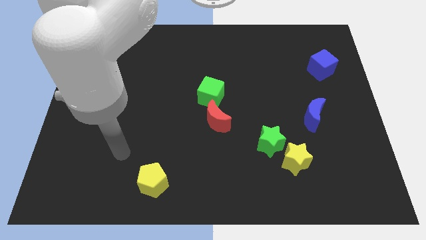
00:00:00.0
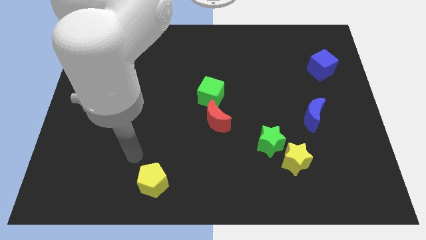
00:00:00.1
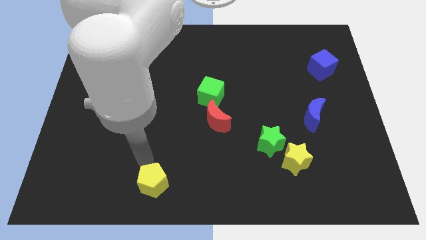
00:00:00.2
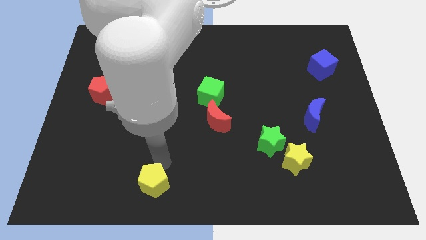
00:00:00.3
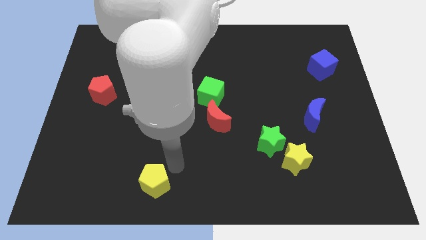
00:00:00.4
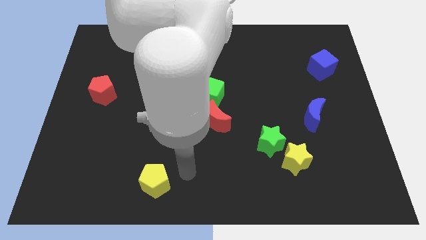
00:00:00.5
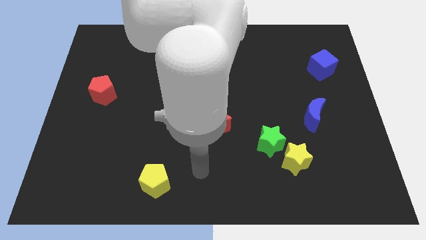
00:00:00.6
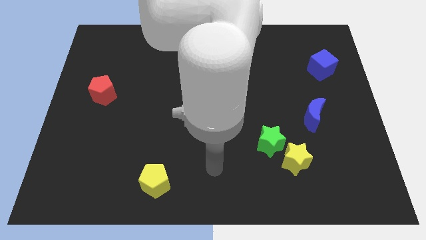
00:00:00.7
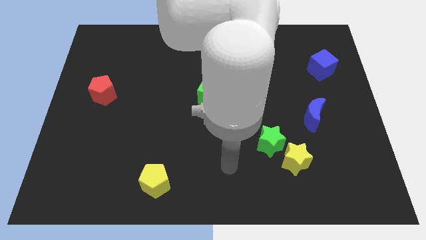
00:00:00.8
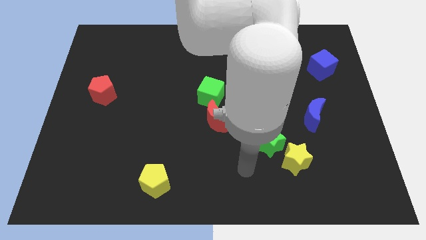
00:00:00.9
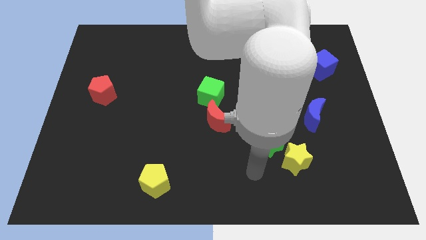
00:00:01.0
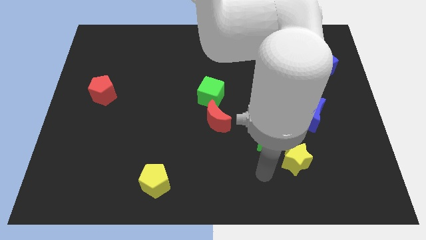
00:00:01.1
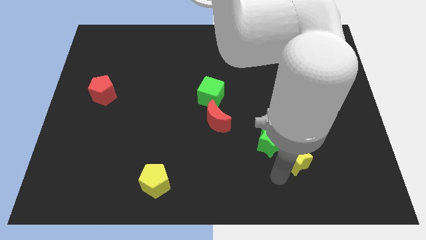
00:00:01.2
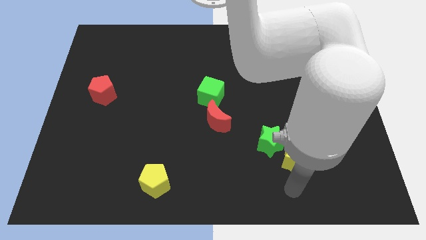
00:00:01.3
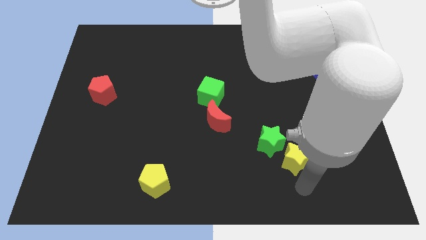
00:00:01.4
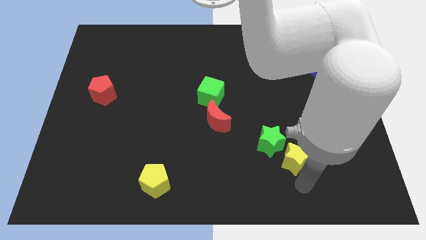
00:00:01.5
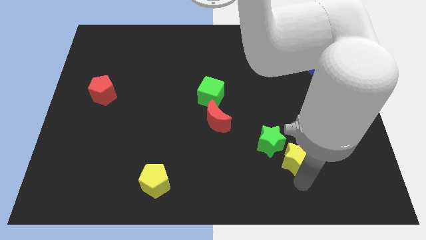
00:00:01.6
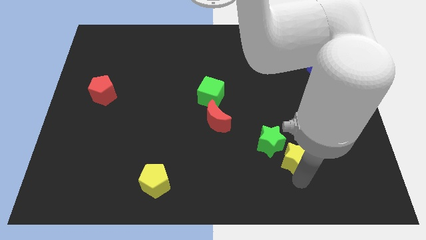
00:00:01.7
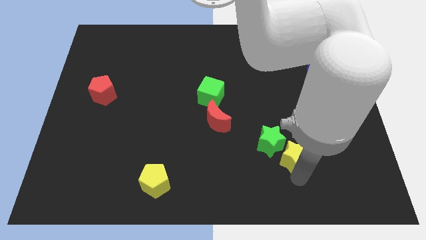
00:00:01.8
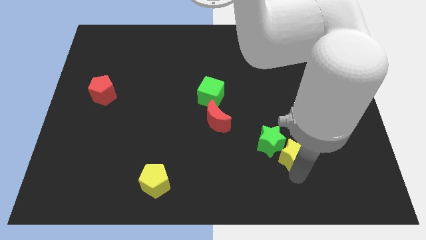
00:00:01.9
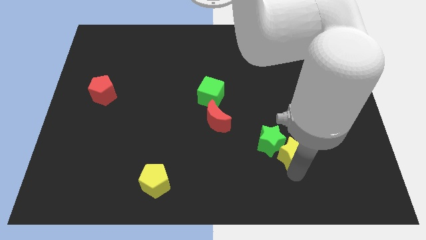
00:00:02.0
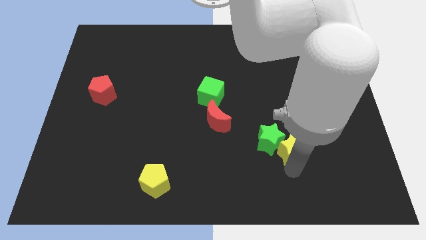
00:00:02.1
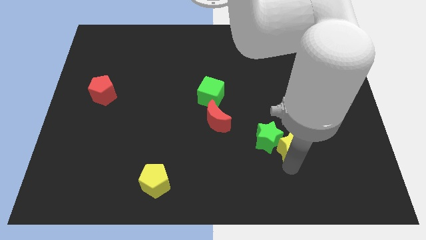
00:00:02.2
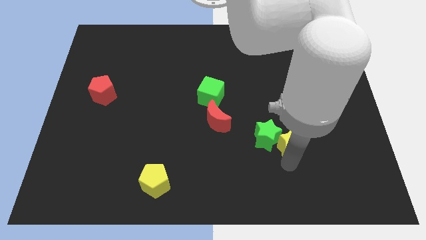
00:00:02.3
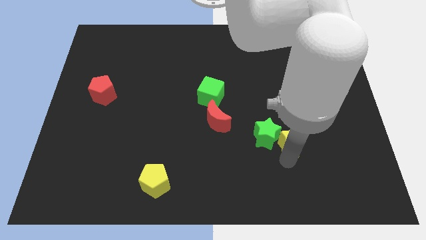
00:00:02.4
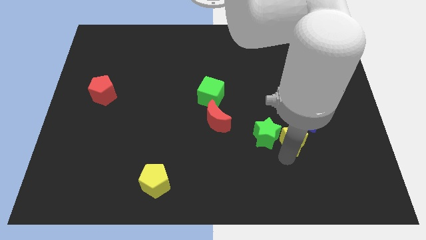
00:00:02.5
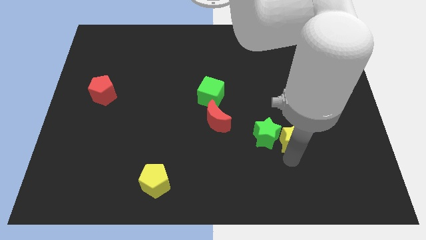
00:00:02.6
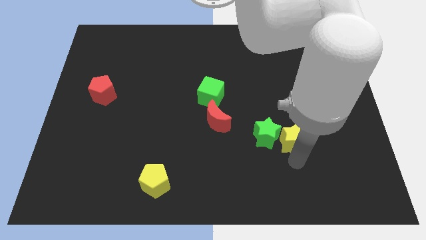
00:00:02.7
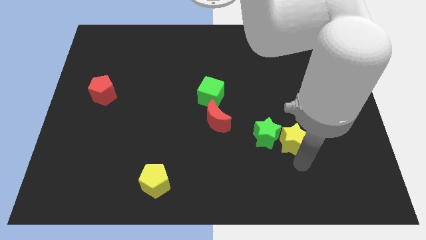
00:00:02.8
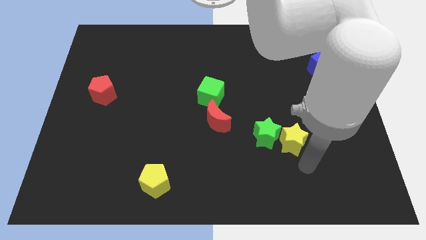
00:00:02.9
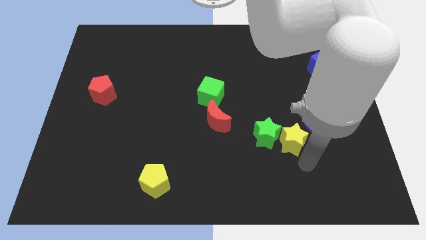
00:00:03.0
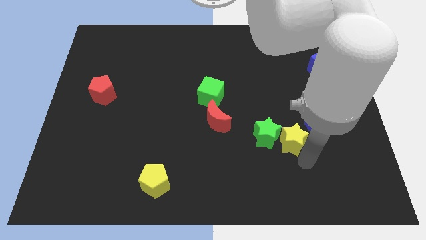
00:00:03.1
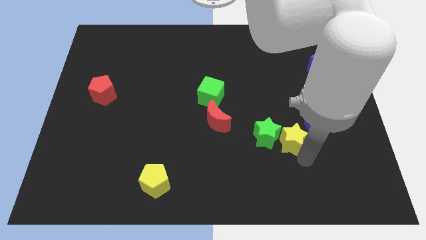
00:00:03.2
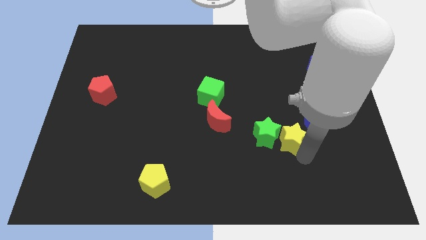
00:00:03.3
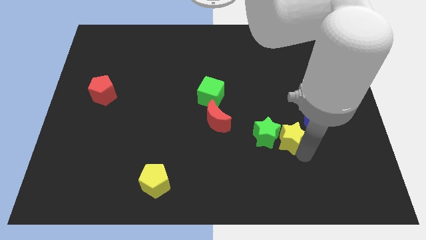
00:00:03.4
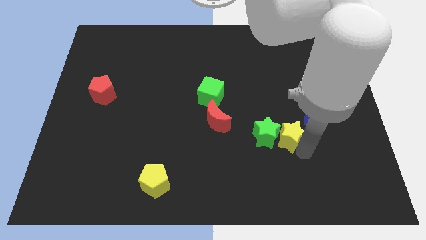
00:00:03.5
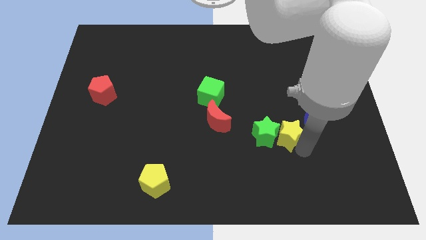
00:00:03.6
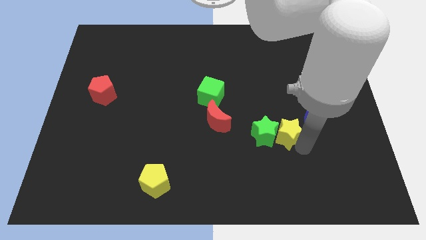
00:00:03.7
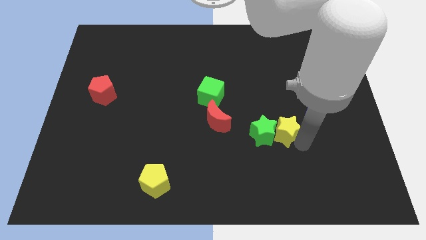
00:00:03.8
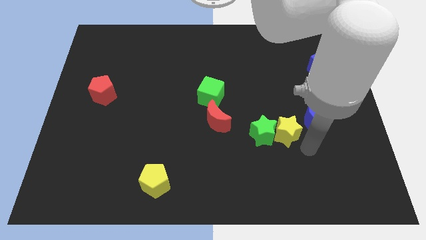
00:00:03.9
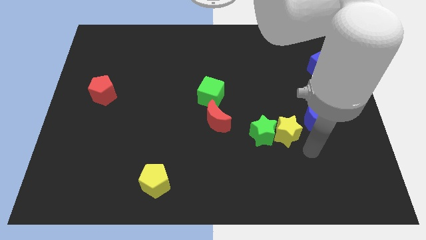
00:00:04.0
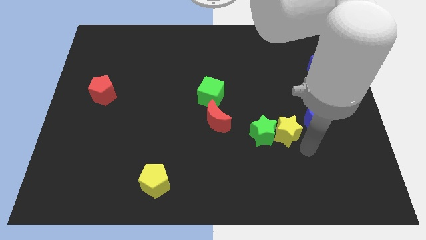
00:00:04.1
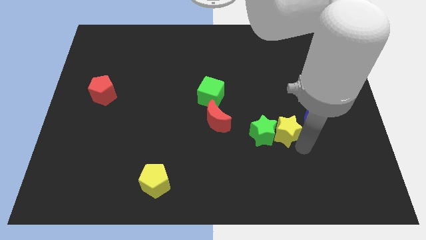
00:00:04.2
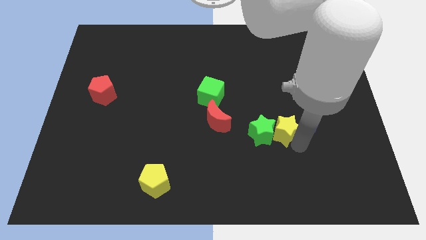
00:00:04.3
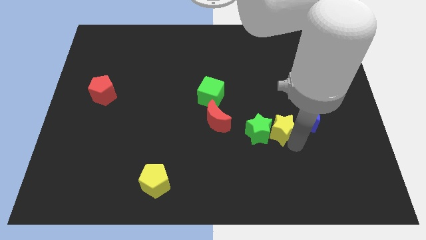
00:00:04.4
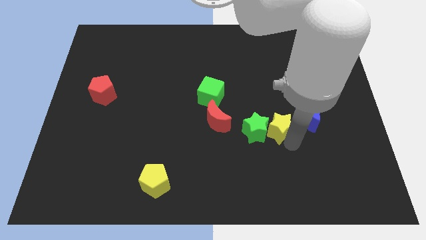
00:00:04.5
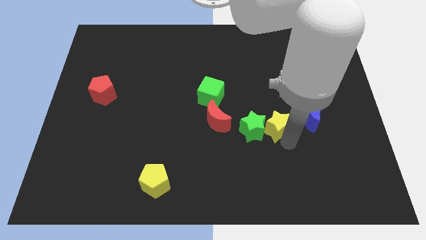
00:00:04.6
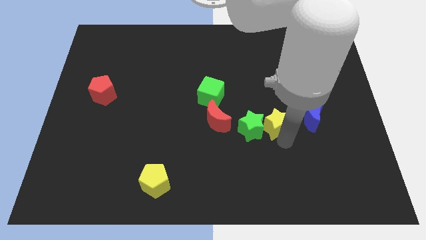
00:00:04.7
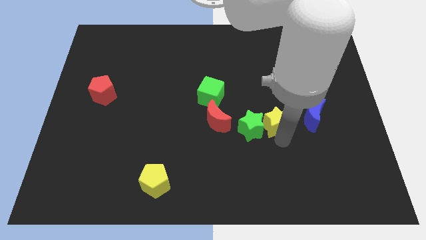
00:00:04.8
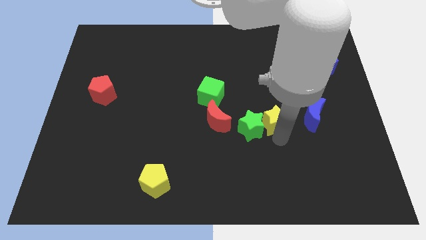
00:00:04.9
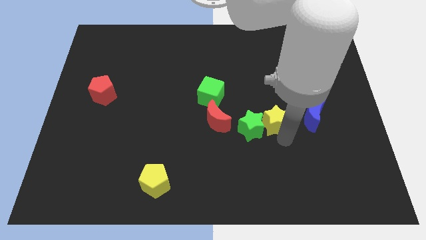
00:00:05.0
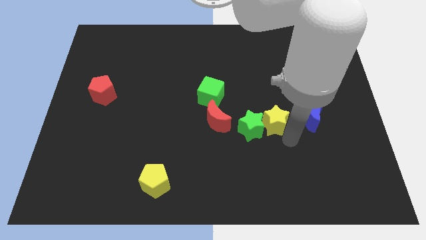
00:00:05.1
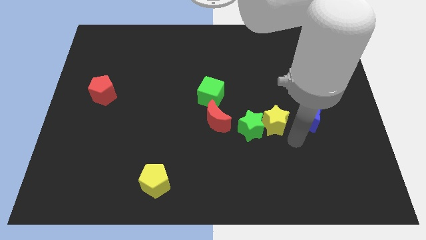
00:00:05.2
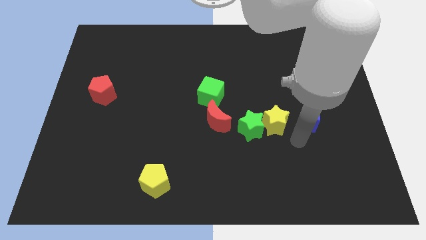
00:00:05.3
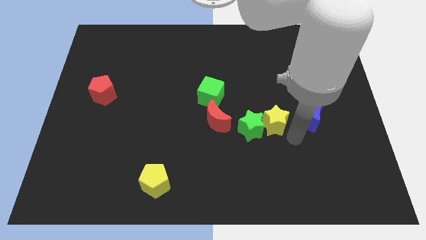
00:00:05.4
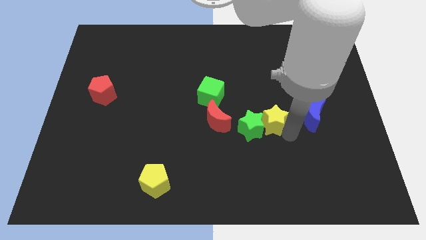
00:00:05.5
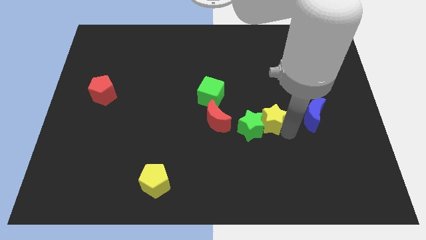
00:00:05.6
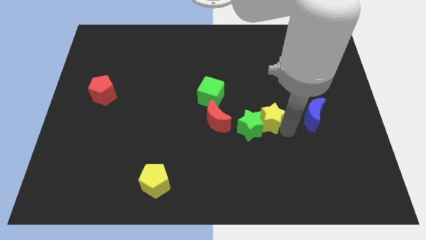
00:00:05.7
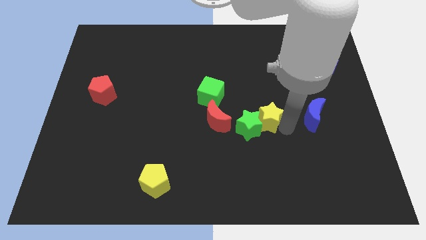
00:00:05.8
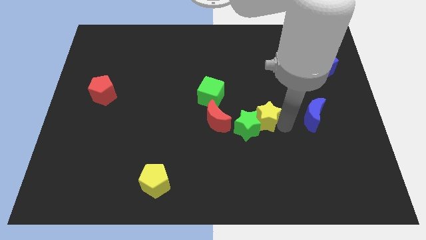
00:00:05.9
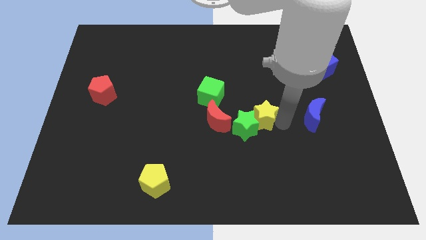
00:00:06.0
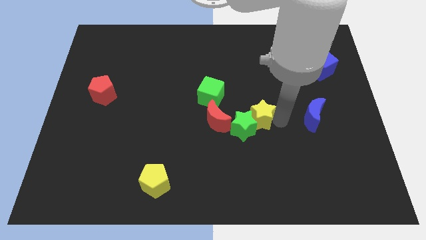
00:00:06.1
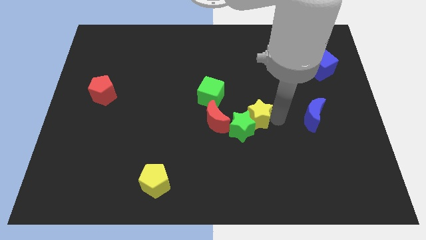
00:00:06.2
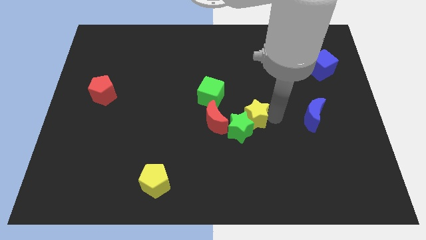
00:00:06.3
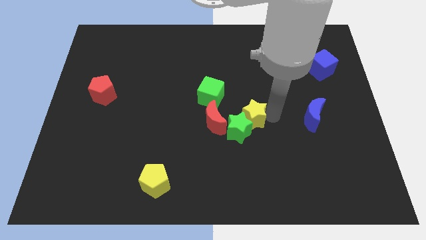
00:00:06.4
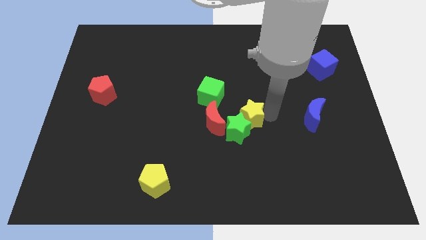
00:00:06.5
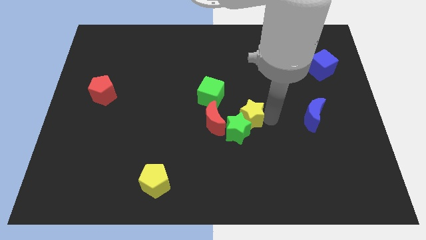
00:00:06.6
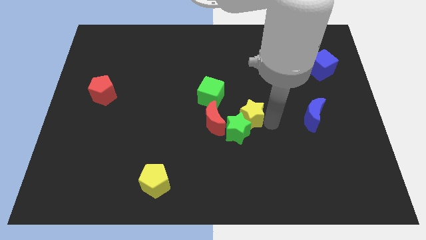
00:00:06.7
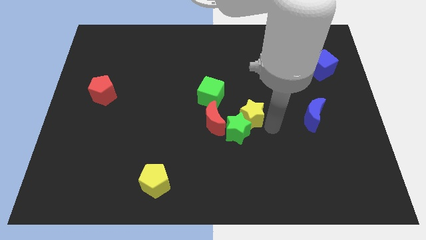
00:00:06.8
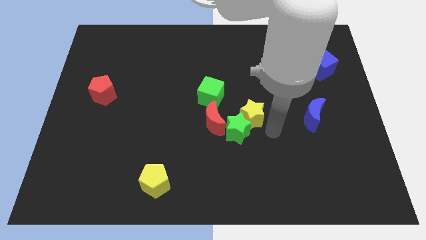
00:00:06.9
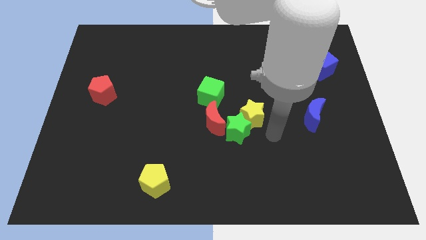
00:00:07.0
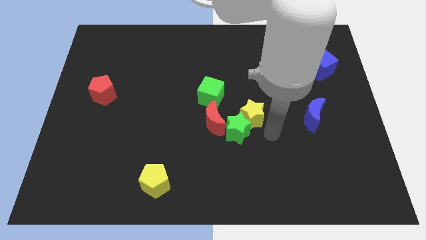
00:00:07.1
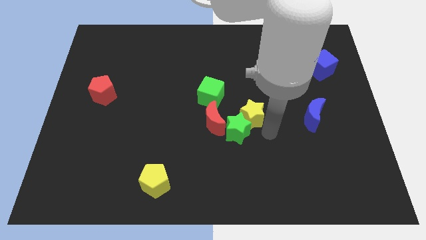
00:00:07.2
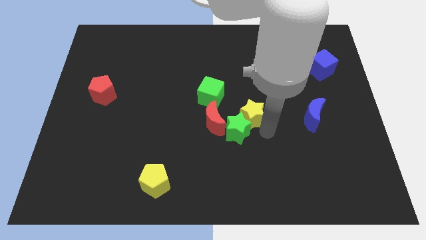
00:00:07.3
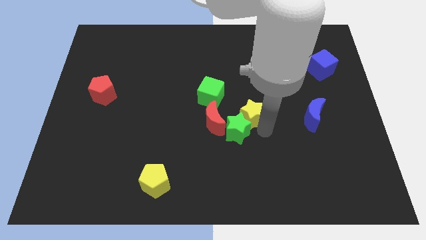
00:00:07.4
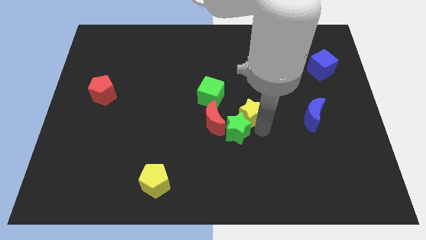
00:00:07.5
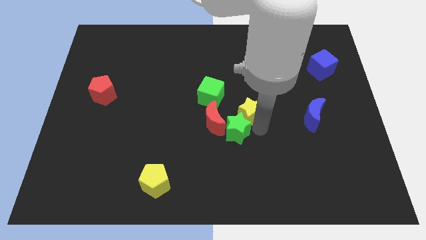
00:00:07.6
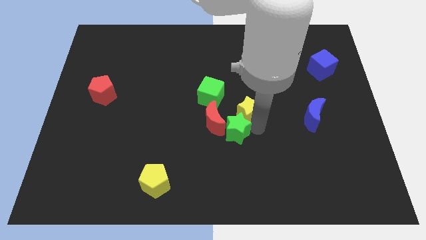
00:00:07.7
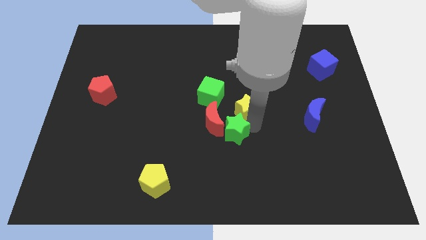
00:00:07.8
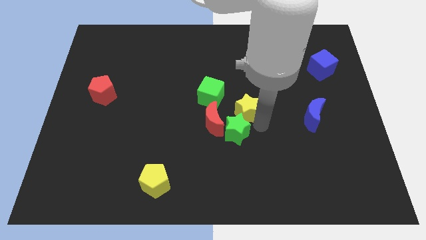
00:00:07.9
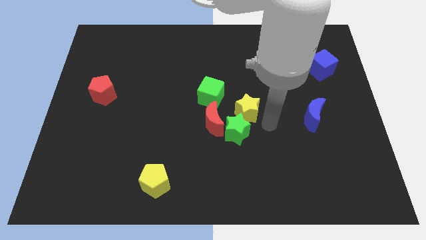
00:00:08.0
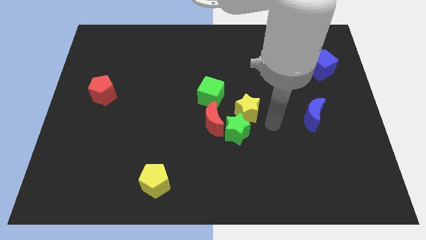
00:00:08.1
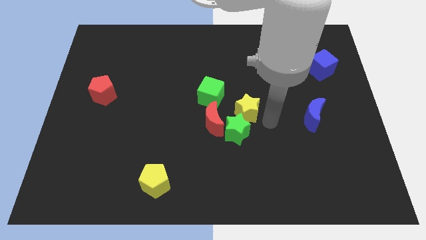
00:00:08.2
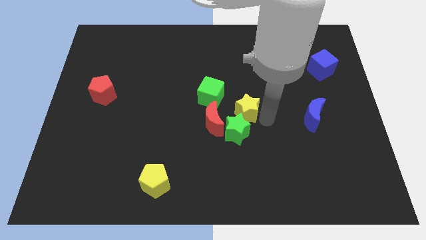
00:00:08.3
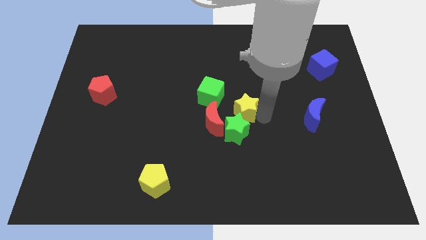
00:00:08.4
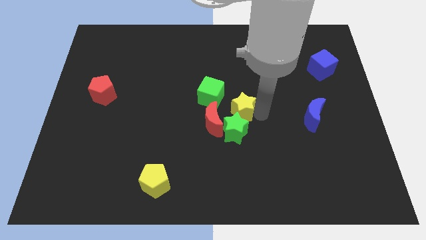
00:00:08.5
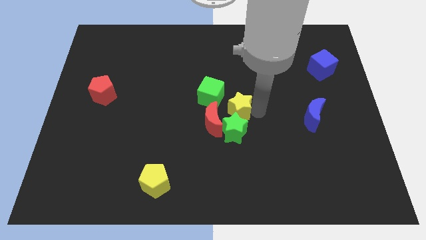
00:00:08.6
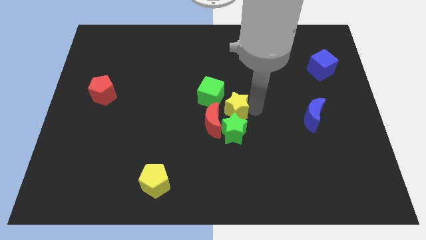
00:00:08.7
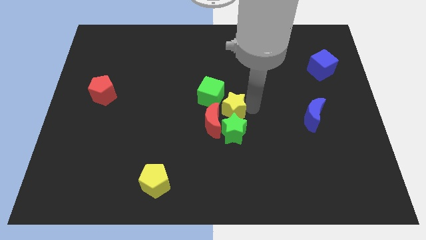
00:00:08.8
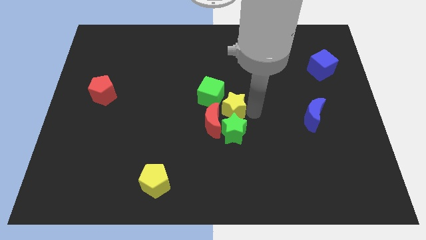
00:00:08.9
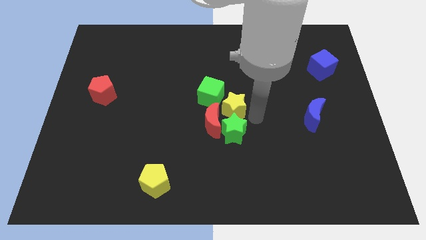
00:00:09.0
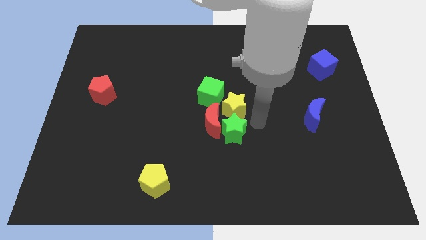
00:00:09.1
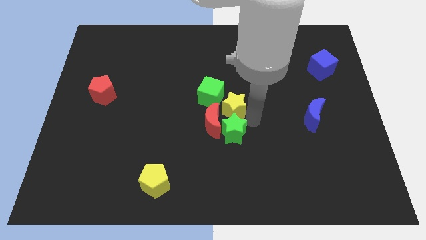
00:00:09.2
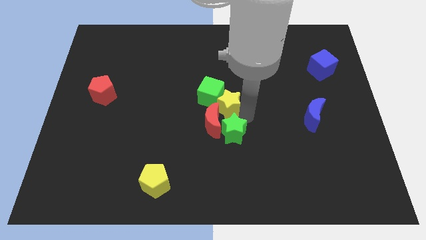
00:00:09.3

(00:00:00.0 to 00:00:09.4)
slide the yellow star next to the green cube
